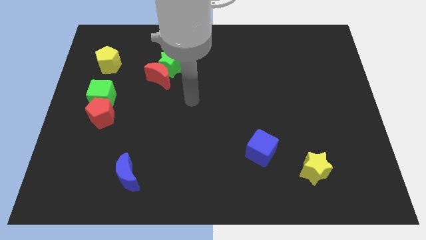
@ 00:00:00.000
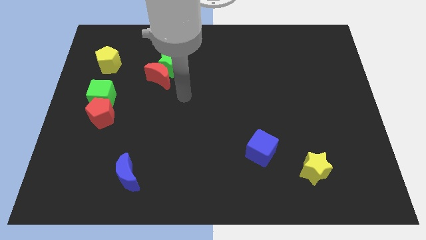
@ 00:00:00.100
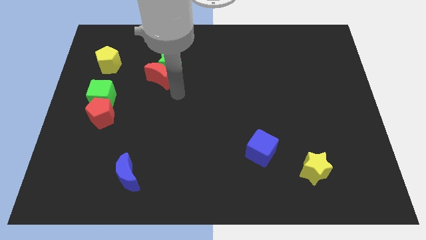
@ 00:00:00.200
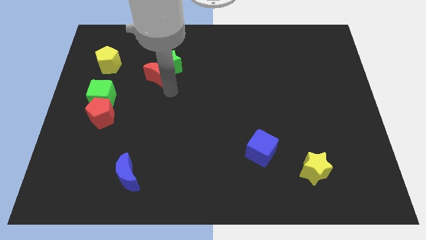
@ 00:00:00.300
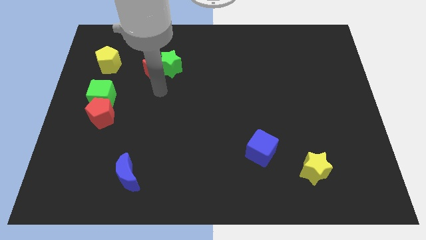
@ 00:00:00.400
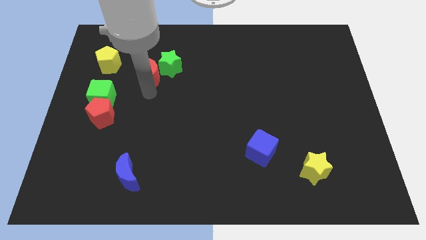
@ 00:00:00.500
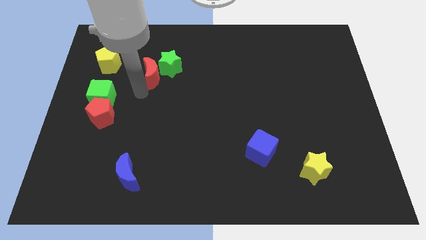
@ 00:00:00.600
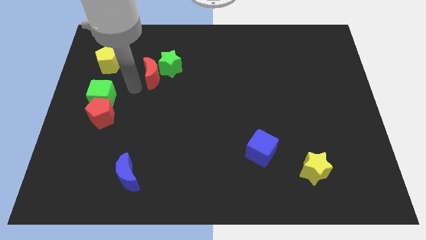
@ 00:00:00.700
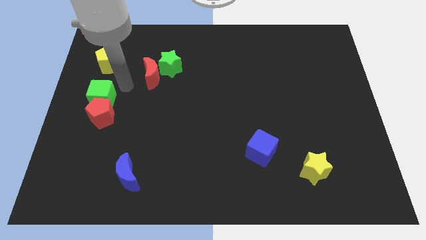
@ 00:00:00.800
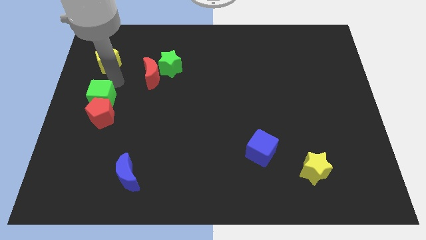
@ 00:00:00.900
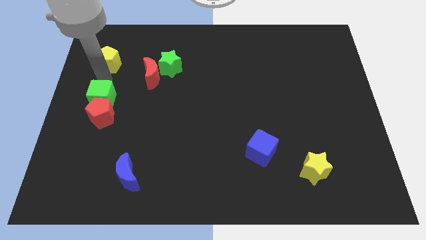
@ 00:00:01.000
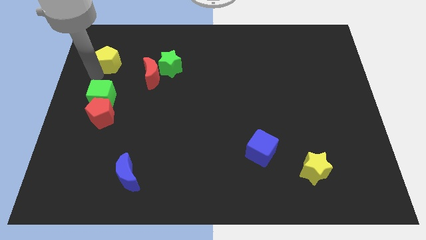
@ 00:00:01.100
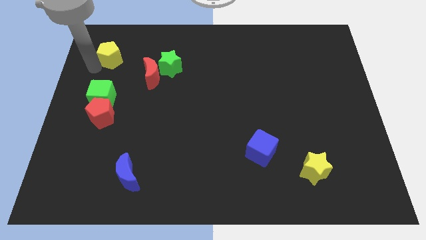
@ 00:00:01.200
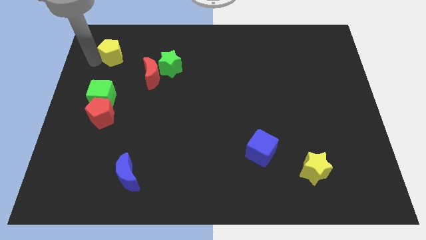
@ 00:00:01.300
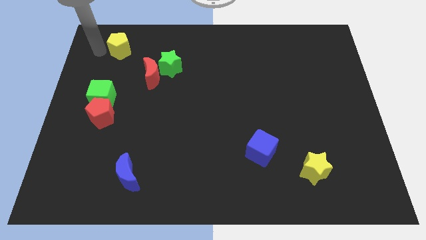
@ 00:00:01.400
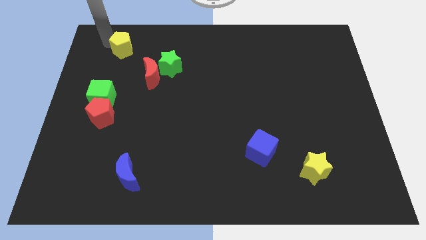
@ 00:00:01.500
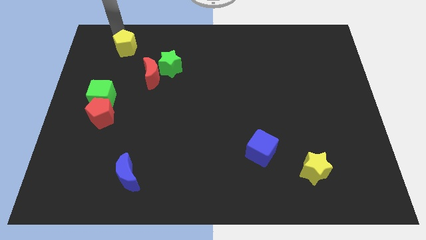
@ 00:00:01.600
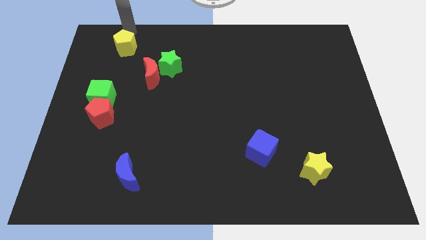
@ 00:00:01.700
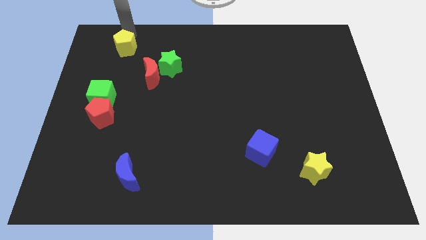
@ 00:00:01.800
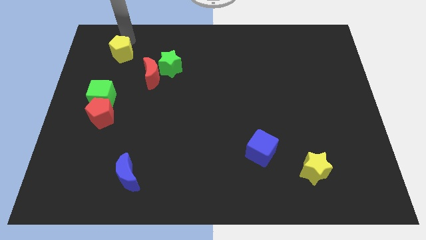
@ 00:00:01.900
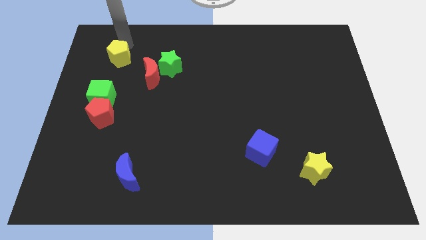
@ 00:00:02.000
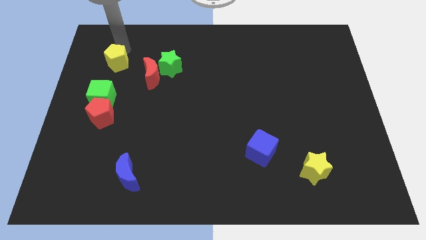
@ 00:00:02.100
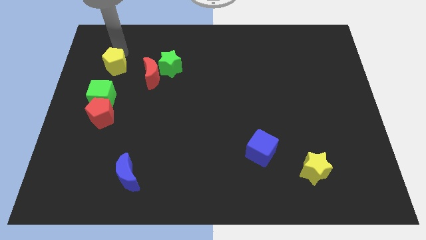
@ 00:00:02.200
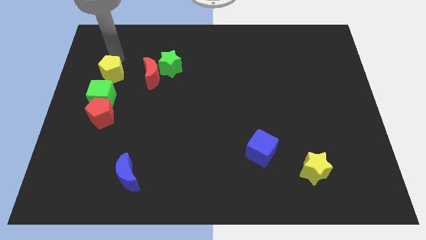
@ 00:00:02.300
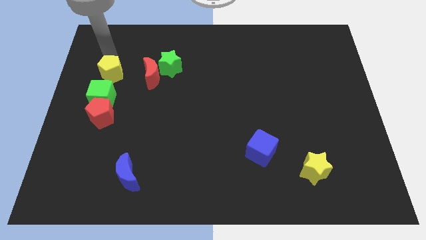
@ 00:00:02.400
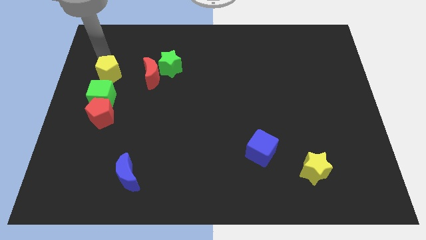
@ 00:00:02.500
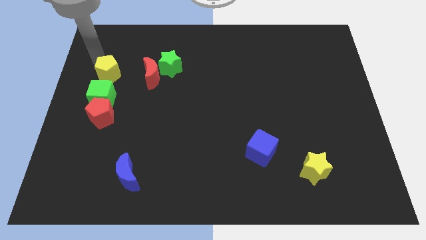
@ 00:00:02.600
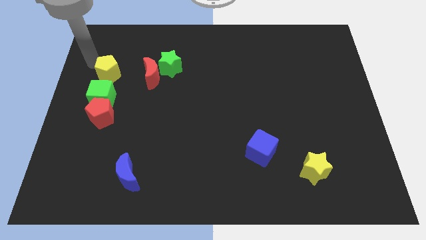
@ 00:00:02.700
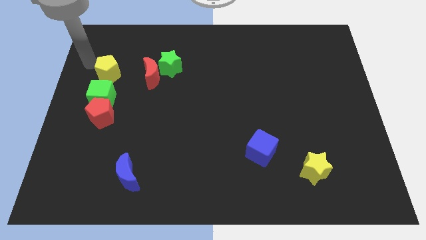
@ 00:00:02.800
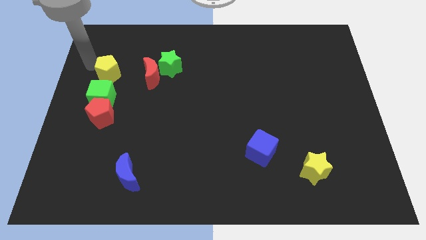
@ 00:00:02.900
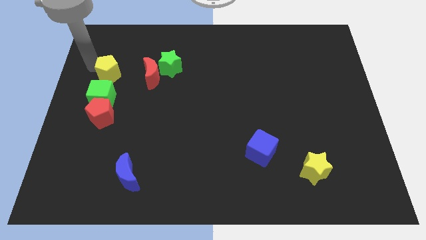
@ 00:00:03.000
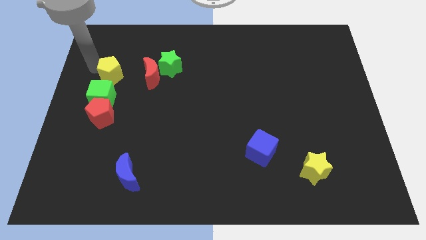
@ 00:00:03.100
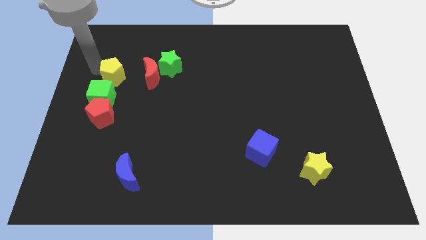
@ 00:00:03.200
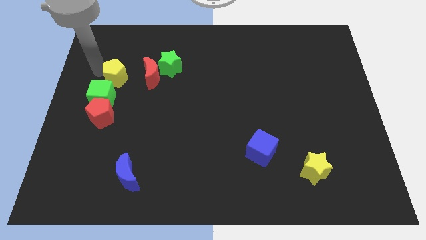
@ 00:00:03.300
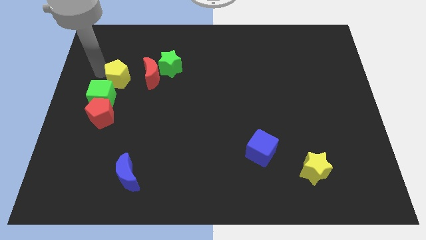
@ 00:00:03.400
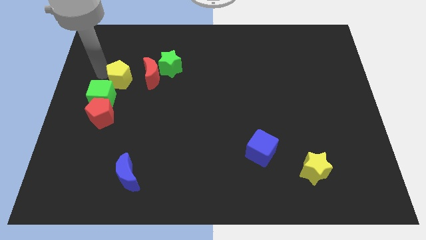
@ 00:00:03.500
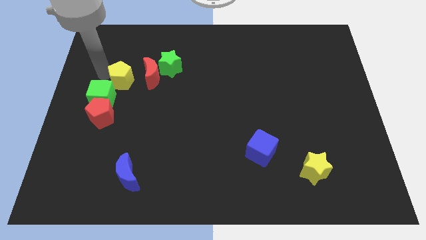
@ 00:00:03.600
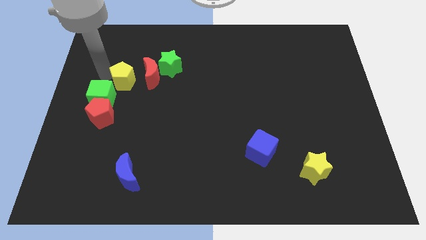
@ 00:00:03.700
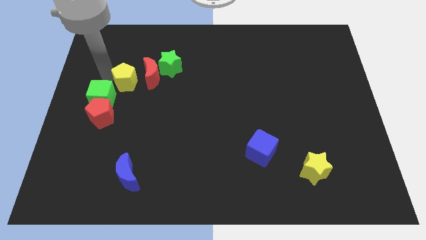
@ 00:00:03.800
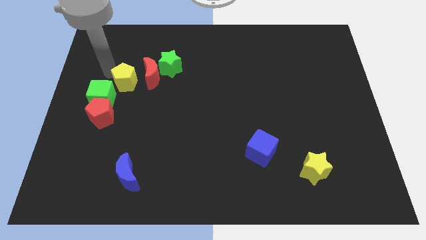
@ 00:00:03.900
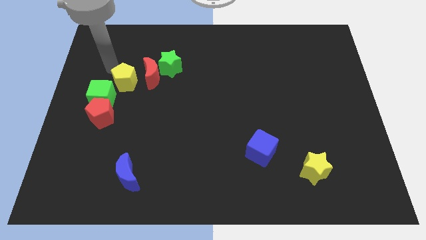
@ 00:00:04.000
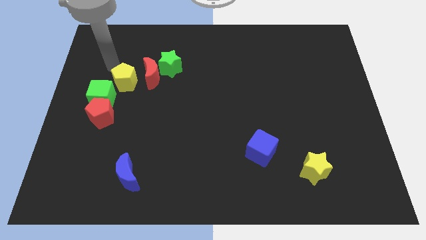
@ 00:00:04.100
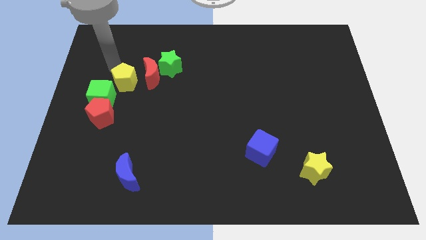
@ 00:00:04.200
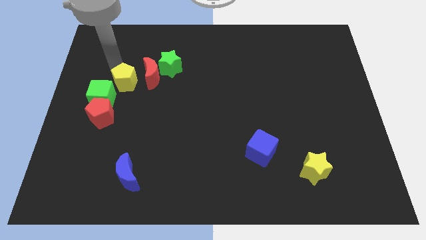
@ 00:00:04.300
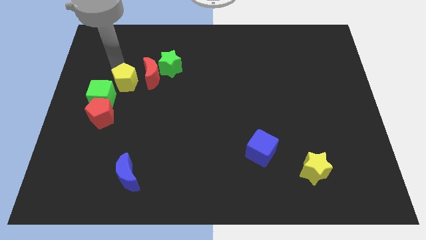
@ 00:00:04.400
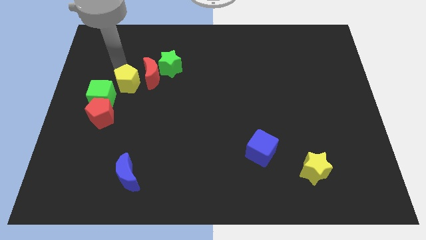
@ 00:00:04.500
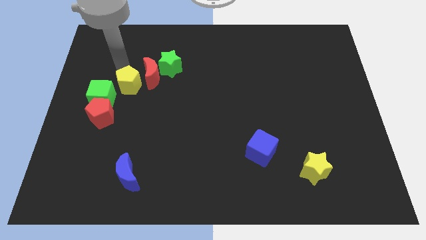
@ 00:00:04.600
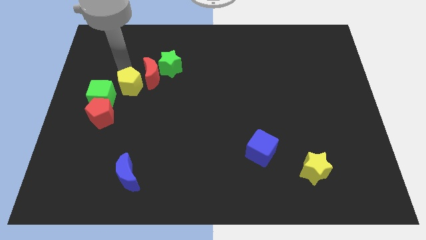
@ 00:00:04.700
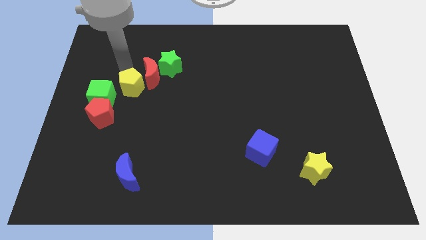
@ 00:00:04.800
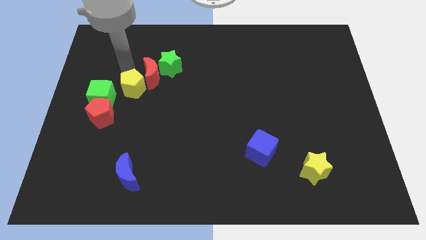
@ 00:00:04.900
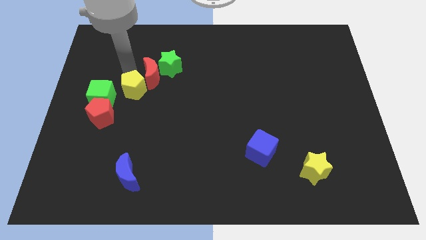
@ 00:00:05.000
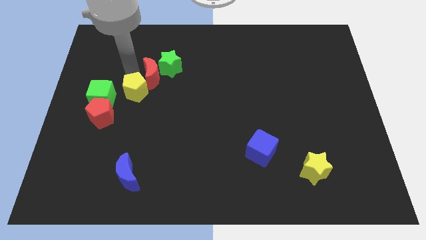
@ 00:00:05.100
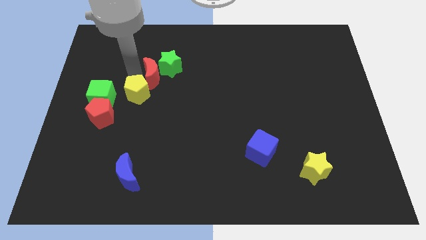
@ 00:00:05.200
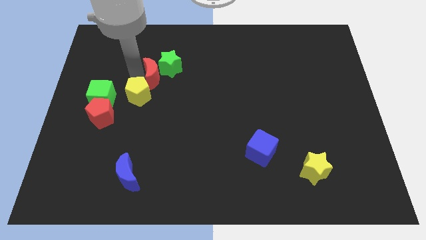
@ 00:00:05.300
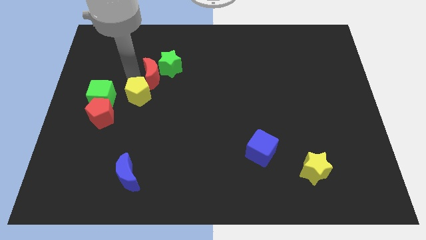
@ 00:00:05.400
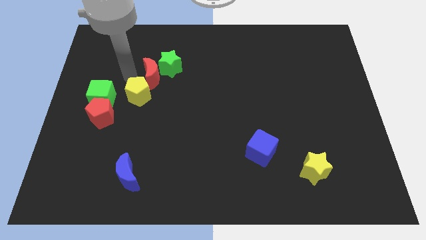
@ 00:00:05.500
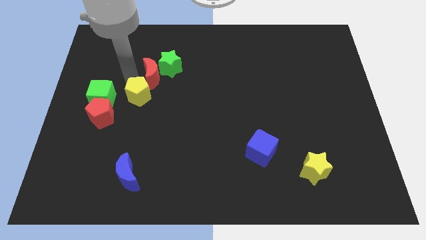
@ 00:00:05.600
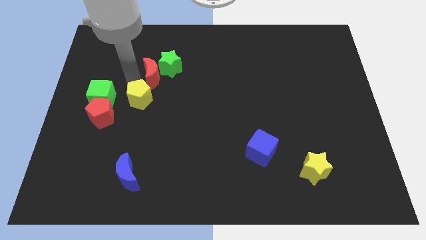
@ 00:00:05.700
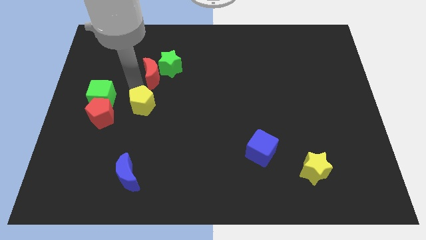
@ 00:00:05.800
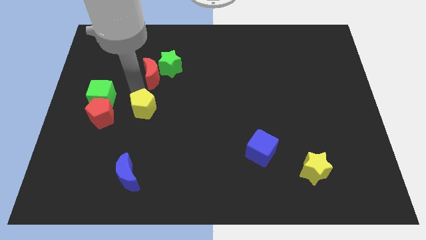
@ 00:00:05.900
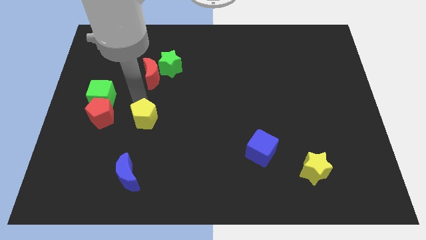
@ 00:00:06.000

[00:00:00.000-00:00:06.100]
slide the yellow pentagon downwards and then to the right

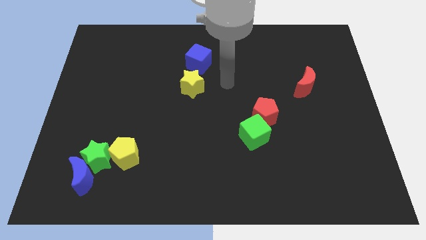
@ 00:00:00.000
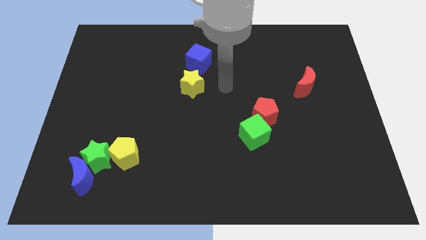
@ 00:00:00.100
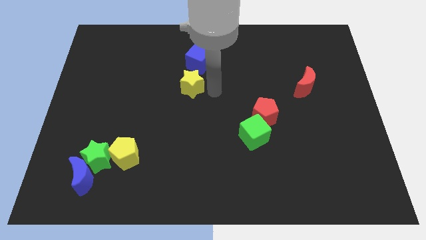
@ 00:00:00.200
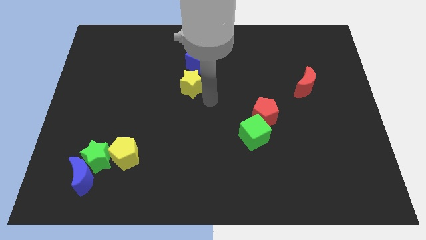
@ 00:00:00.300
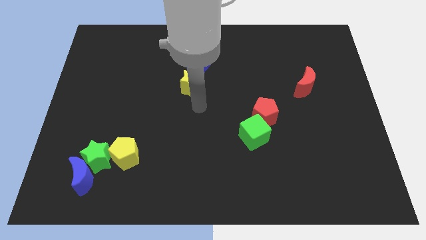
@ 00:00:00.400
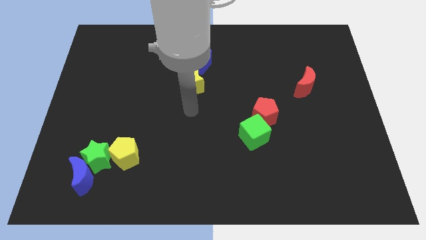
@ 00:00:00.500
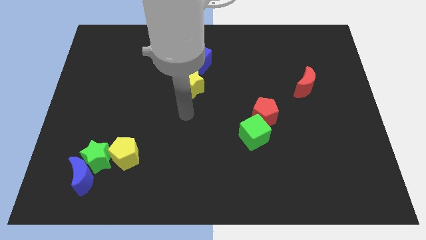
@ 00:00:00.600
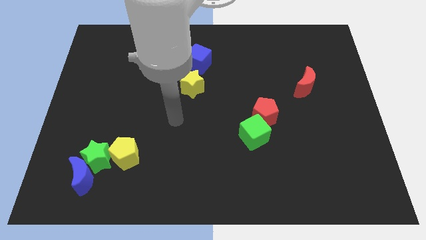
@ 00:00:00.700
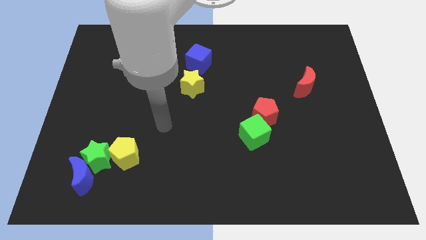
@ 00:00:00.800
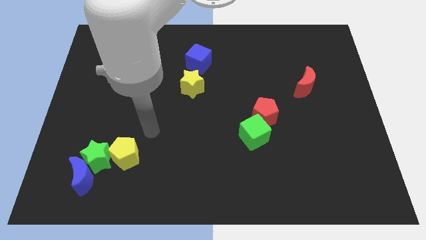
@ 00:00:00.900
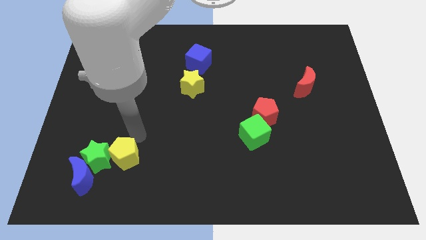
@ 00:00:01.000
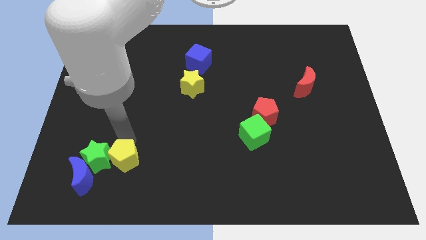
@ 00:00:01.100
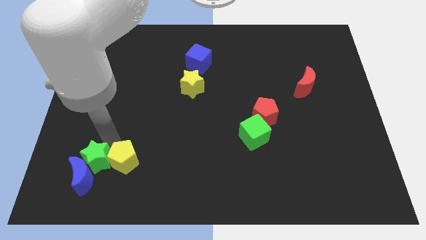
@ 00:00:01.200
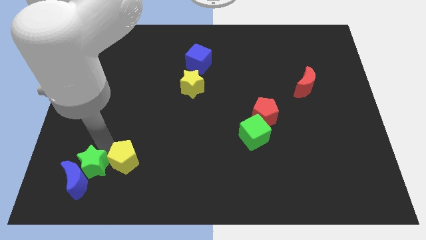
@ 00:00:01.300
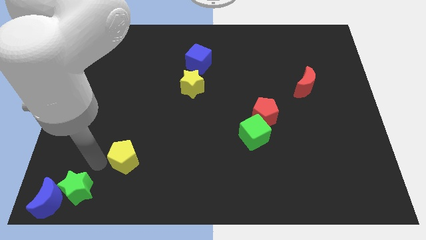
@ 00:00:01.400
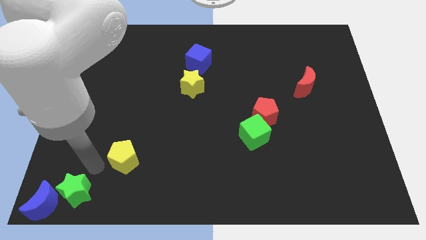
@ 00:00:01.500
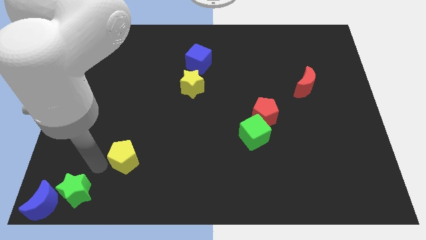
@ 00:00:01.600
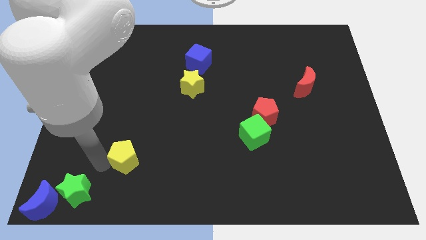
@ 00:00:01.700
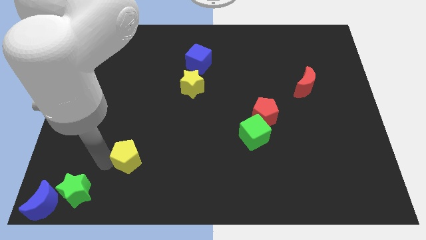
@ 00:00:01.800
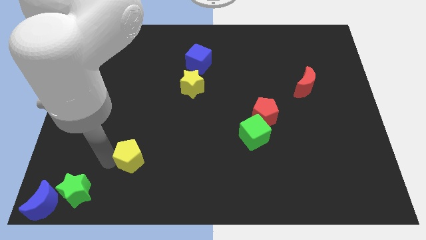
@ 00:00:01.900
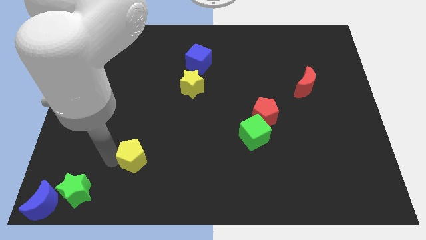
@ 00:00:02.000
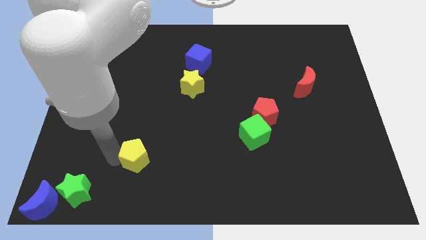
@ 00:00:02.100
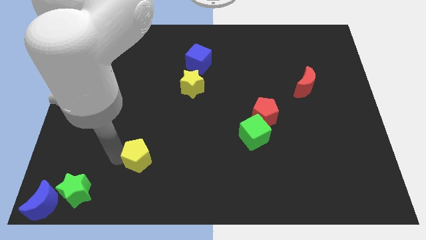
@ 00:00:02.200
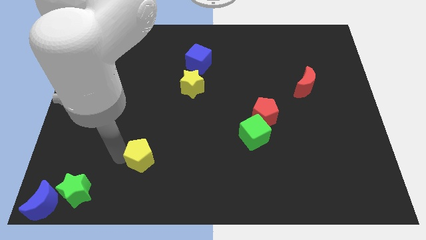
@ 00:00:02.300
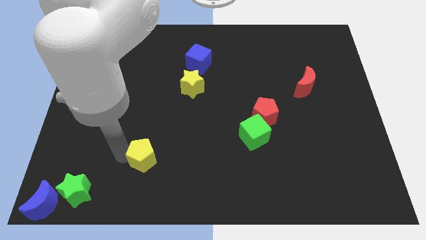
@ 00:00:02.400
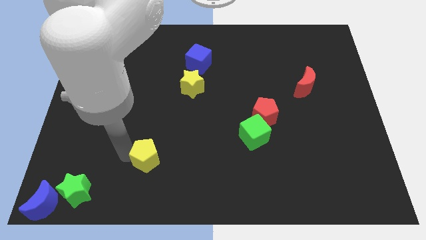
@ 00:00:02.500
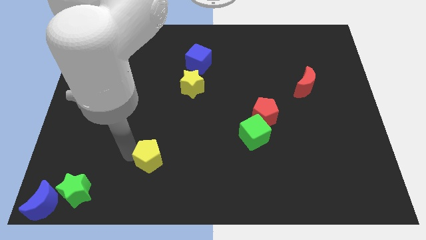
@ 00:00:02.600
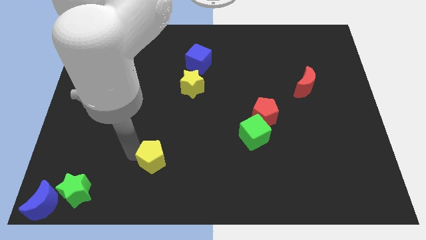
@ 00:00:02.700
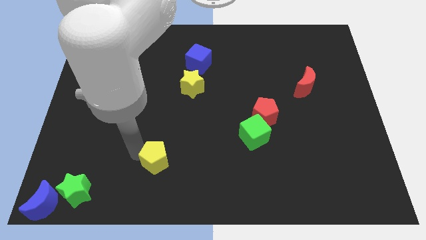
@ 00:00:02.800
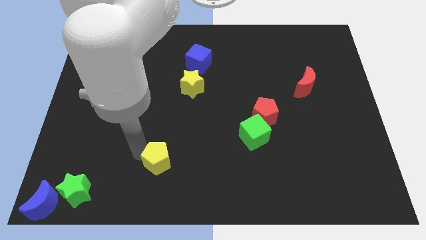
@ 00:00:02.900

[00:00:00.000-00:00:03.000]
move the yellow pentagon a bit to the right
